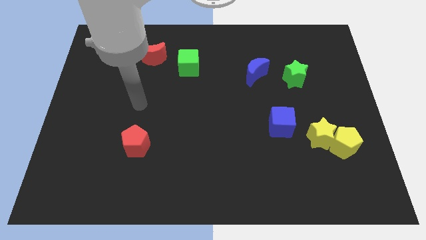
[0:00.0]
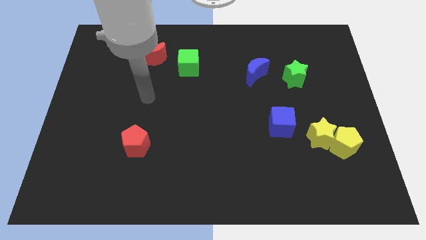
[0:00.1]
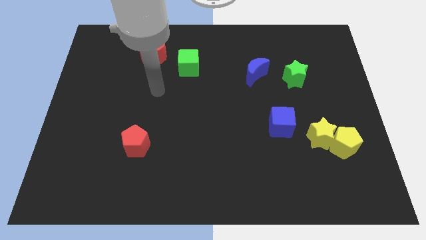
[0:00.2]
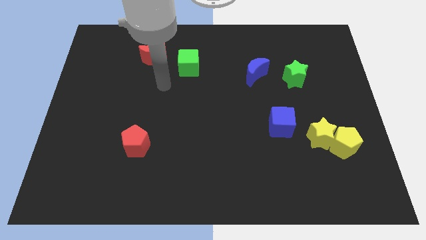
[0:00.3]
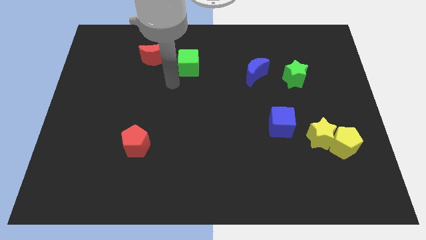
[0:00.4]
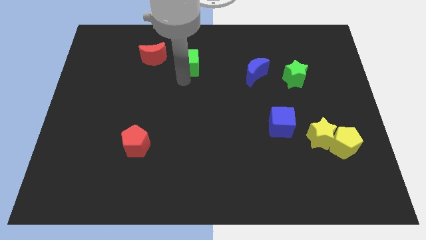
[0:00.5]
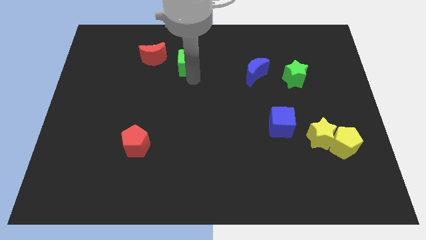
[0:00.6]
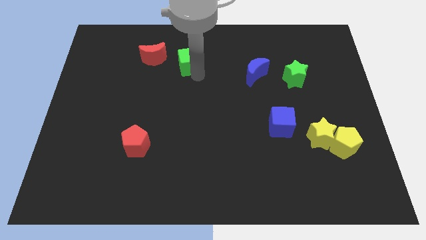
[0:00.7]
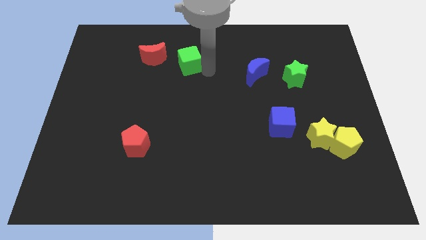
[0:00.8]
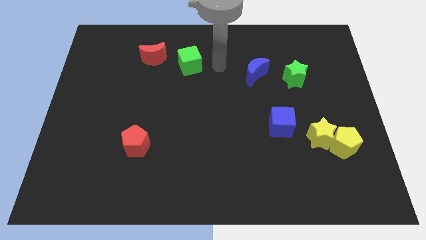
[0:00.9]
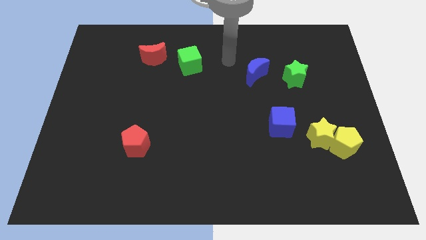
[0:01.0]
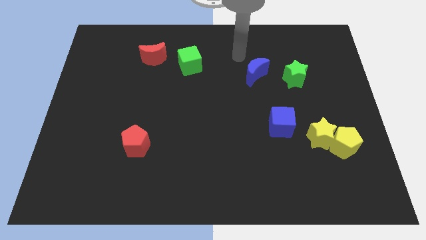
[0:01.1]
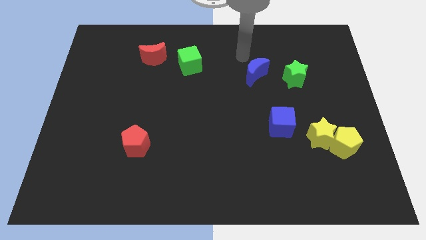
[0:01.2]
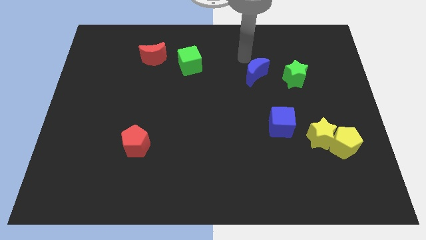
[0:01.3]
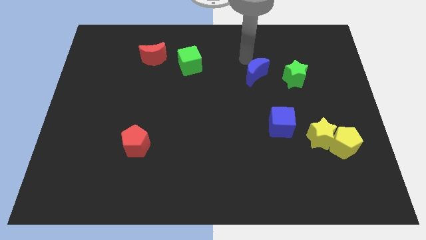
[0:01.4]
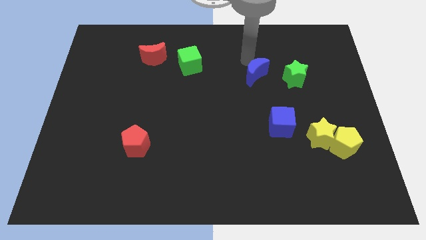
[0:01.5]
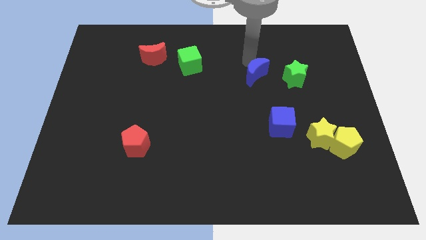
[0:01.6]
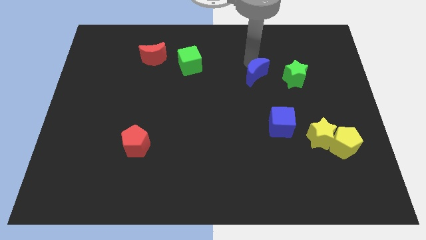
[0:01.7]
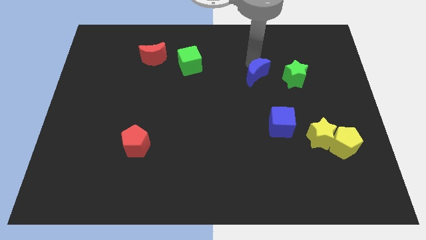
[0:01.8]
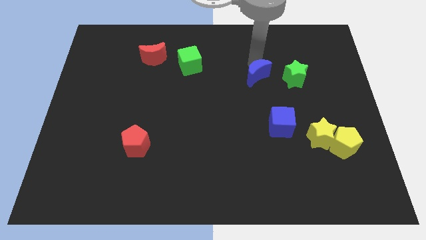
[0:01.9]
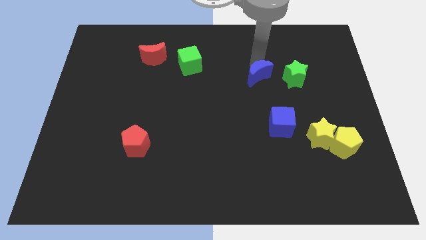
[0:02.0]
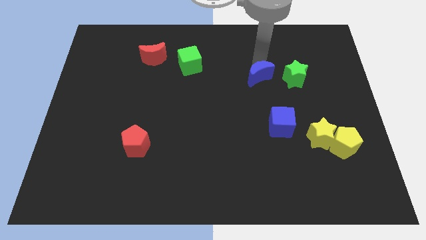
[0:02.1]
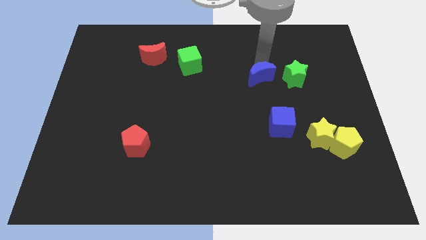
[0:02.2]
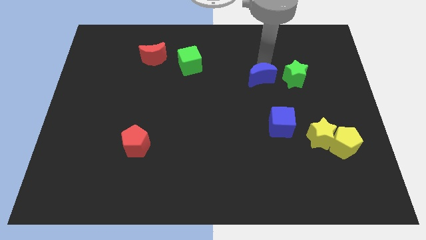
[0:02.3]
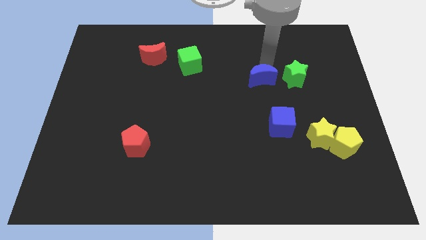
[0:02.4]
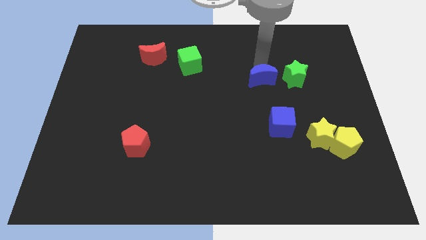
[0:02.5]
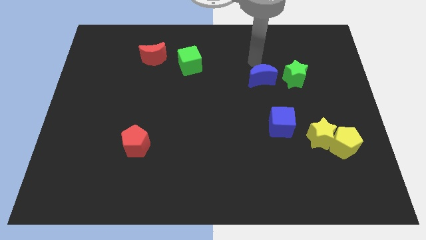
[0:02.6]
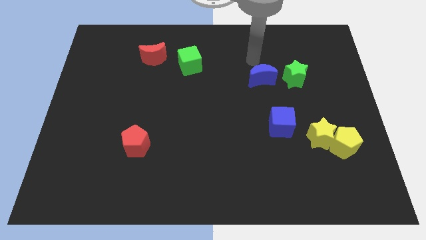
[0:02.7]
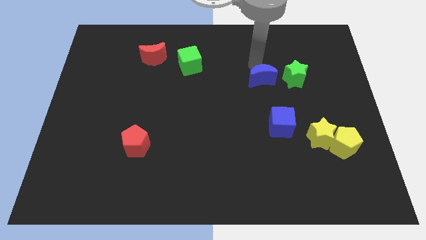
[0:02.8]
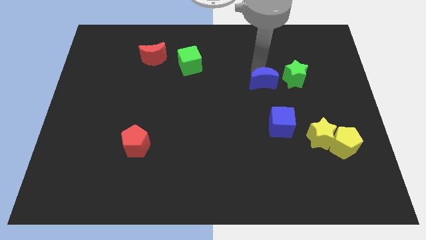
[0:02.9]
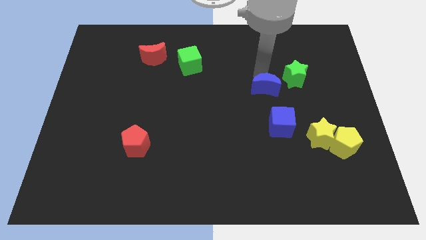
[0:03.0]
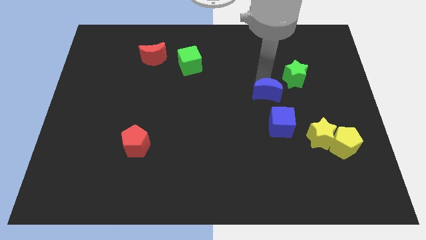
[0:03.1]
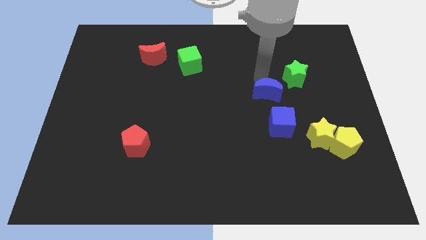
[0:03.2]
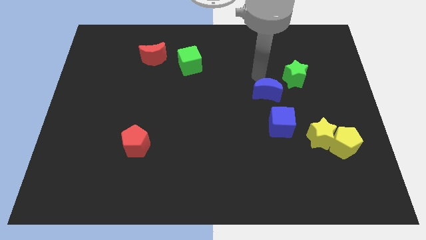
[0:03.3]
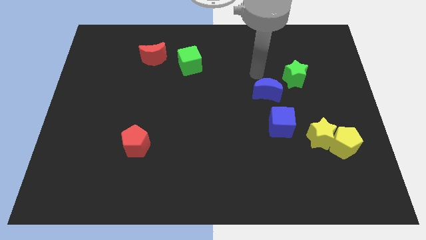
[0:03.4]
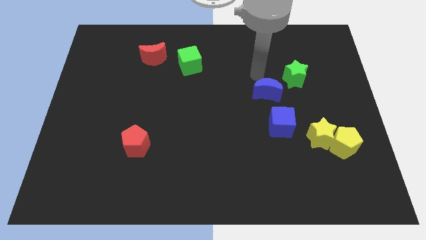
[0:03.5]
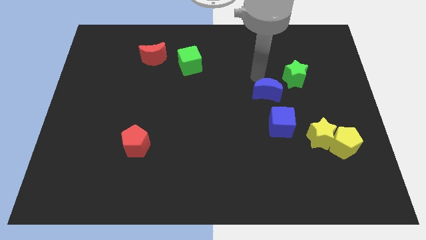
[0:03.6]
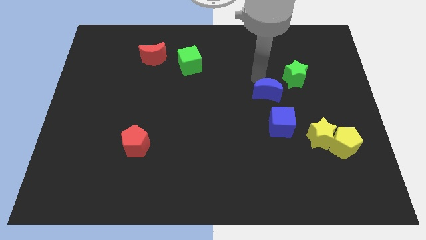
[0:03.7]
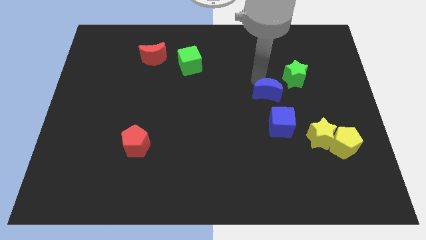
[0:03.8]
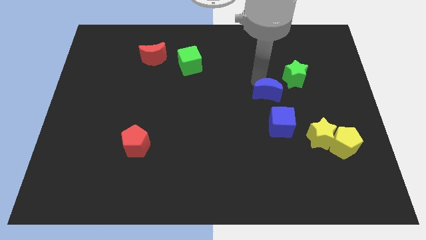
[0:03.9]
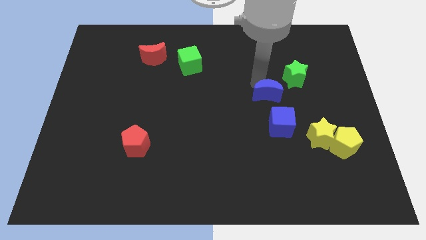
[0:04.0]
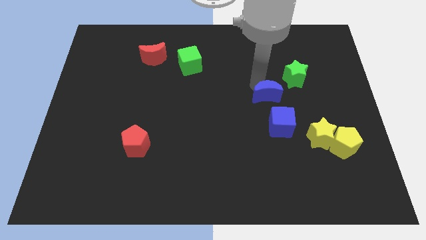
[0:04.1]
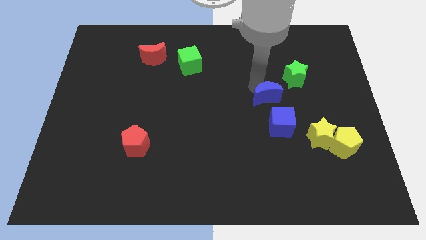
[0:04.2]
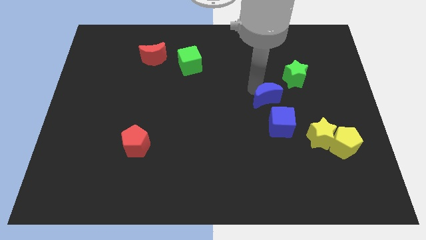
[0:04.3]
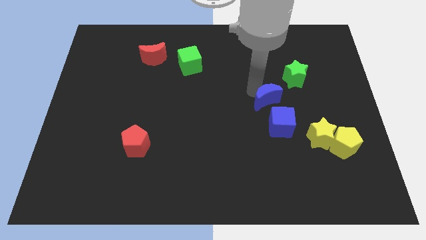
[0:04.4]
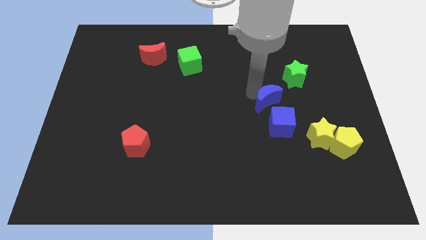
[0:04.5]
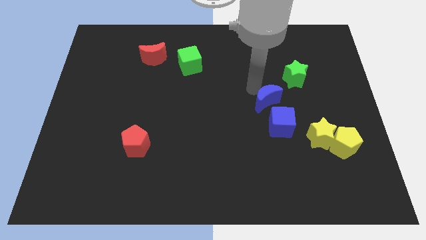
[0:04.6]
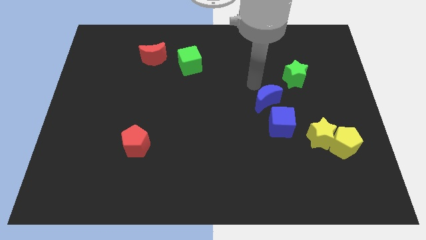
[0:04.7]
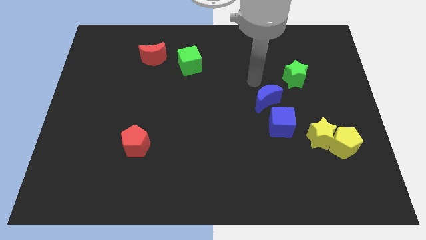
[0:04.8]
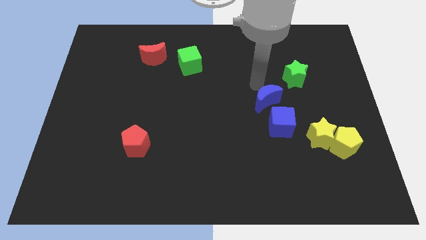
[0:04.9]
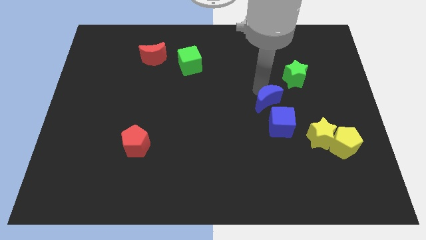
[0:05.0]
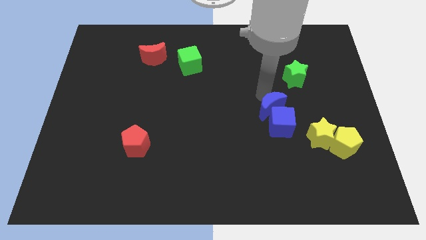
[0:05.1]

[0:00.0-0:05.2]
push the blue moon to the blue cube

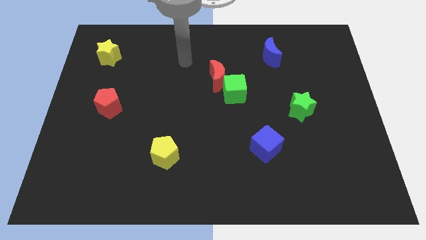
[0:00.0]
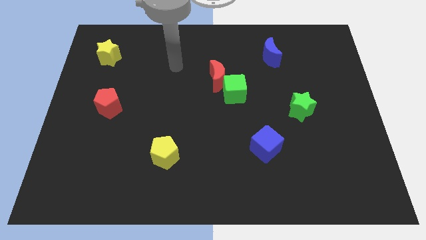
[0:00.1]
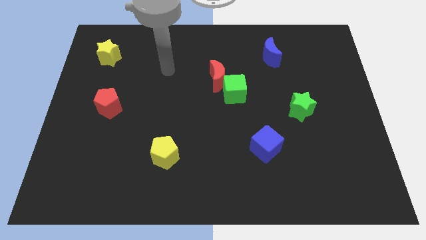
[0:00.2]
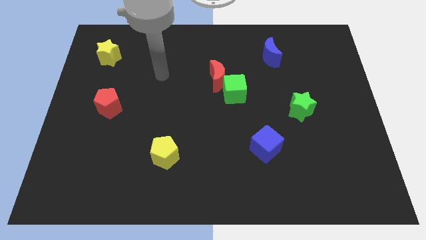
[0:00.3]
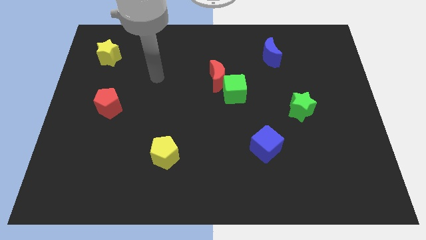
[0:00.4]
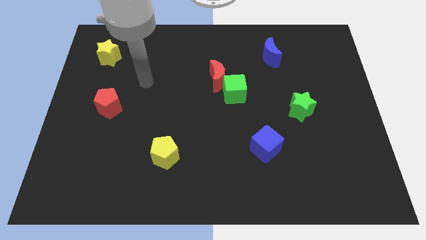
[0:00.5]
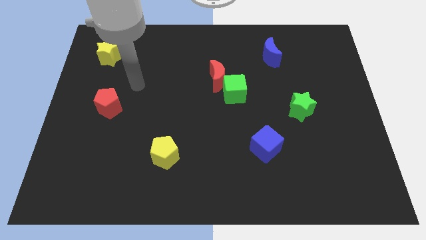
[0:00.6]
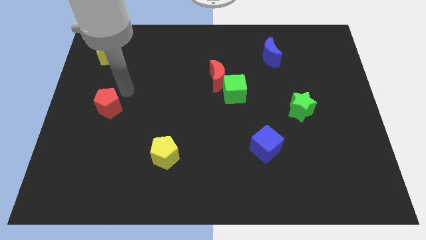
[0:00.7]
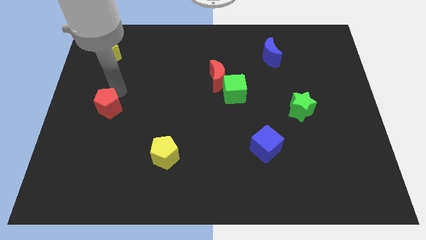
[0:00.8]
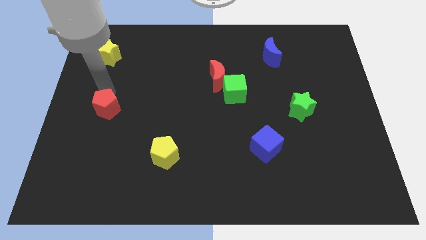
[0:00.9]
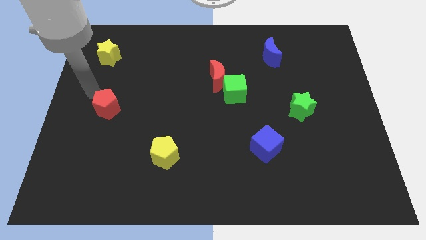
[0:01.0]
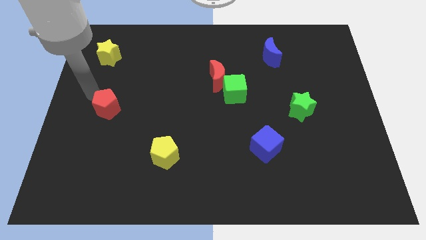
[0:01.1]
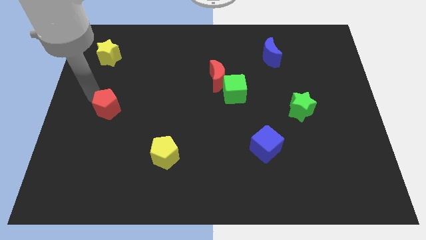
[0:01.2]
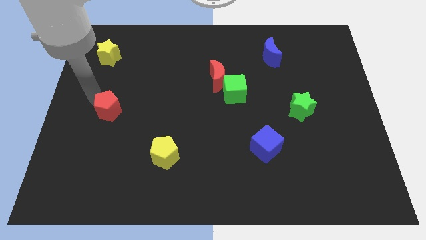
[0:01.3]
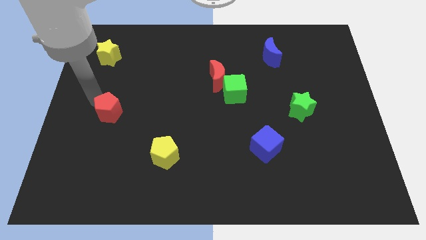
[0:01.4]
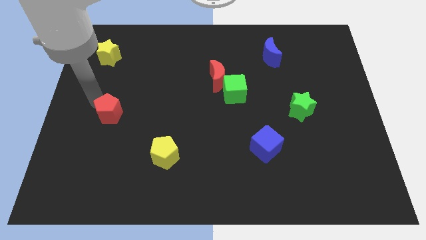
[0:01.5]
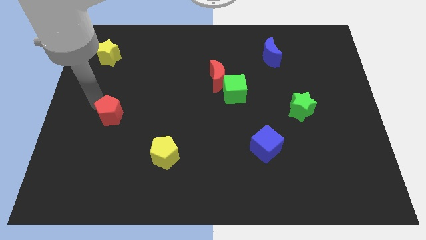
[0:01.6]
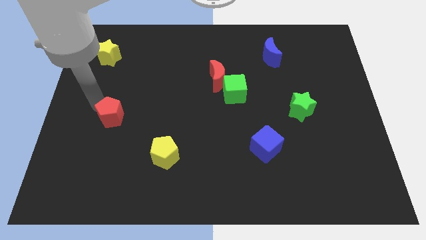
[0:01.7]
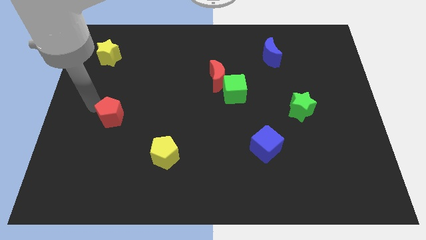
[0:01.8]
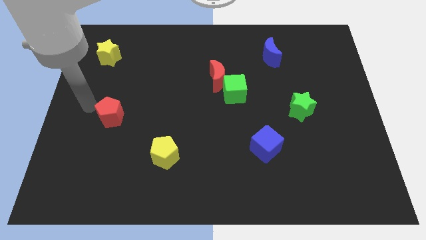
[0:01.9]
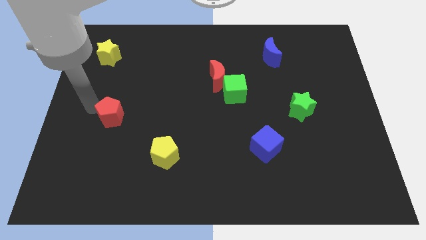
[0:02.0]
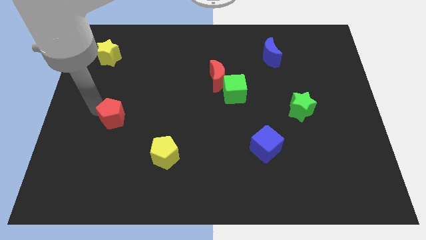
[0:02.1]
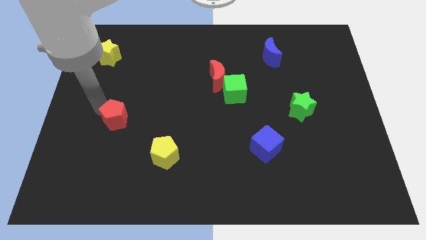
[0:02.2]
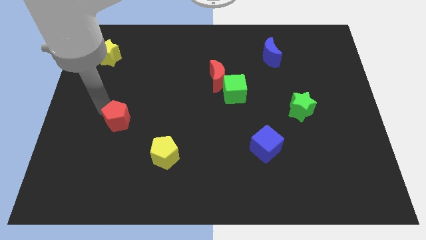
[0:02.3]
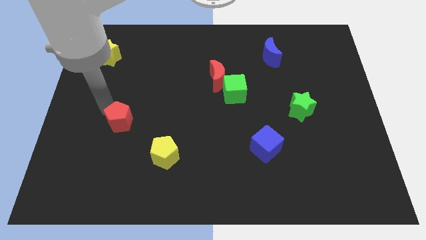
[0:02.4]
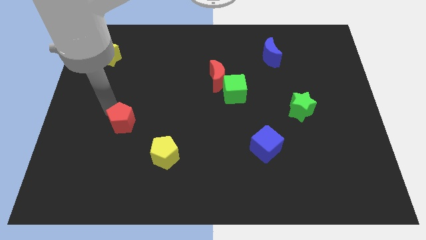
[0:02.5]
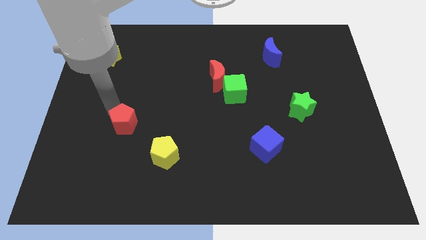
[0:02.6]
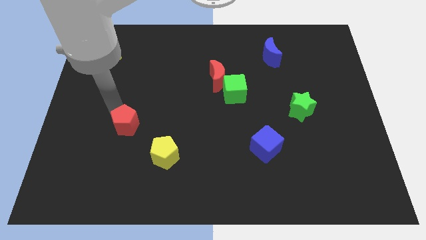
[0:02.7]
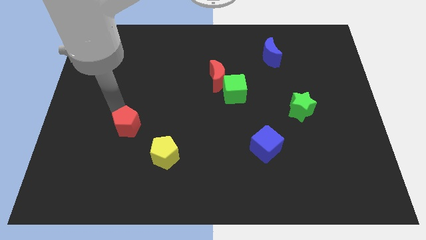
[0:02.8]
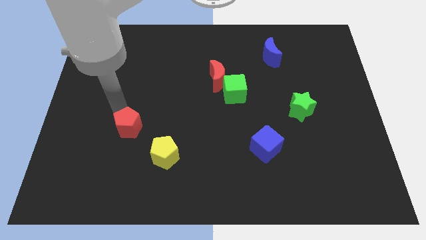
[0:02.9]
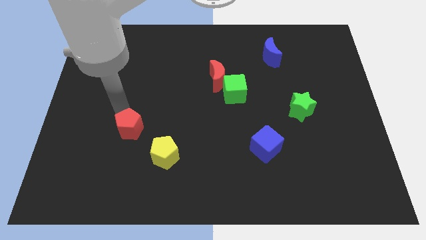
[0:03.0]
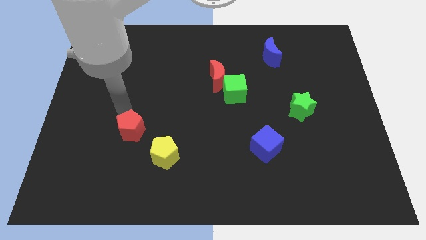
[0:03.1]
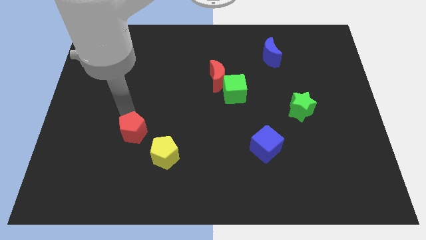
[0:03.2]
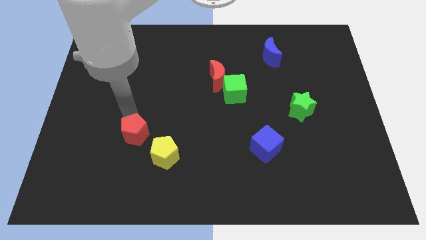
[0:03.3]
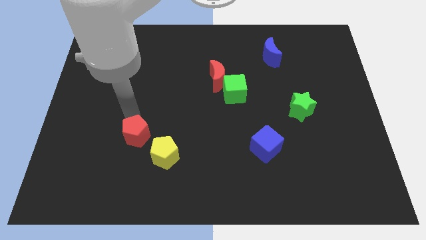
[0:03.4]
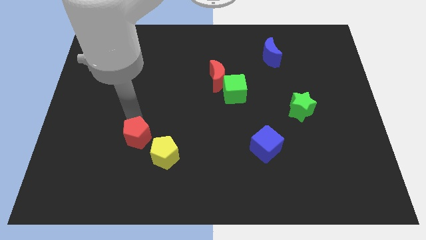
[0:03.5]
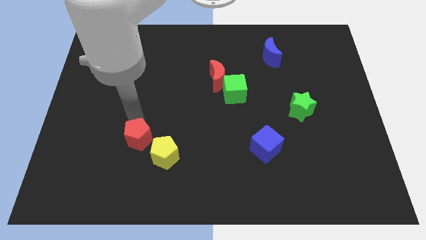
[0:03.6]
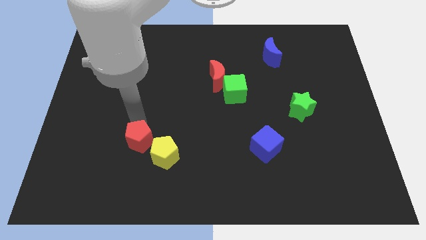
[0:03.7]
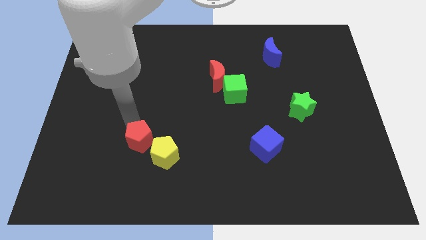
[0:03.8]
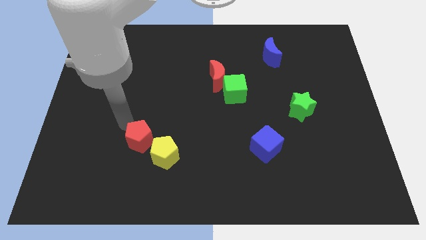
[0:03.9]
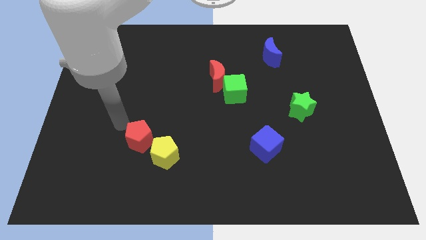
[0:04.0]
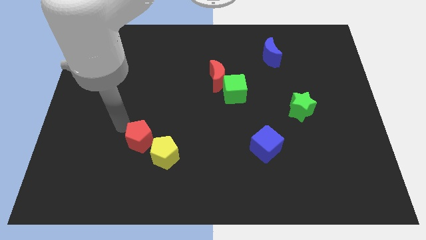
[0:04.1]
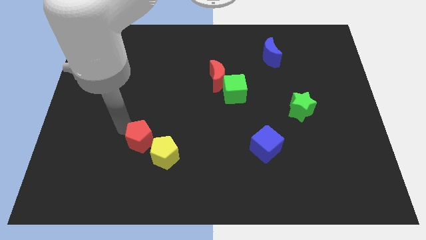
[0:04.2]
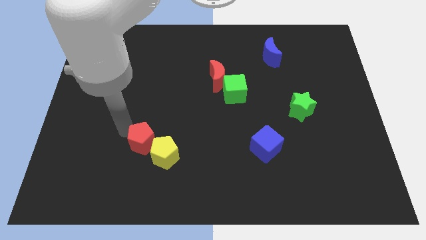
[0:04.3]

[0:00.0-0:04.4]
push the red pentagon to the yellow pentagon
